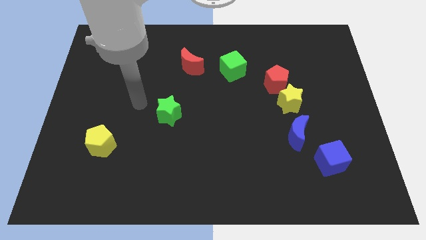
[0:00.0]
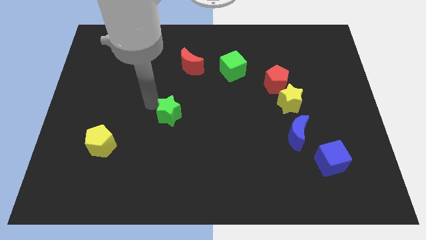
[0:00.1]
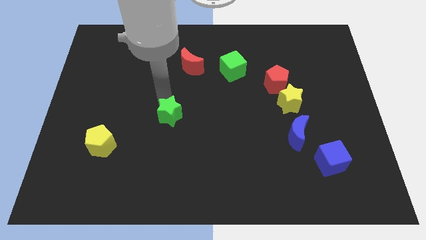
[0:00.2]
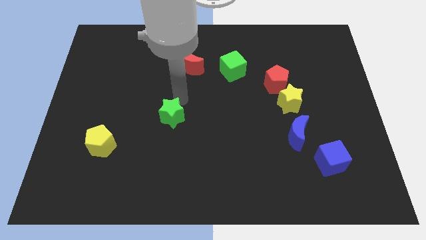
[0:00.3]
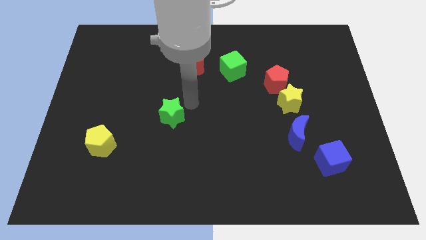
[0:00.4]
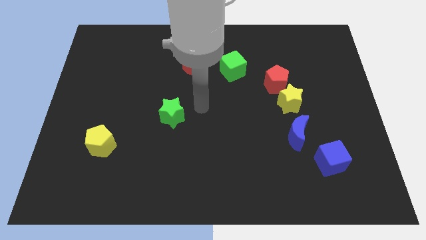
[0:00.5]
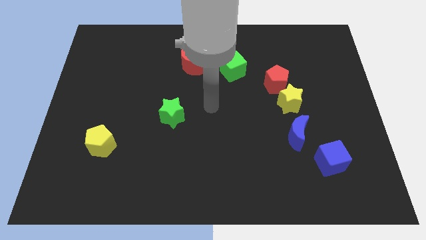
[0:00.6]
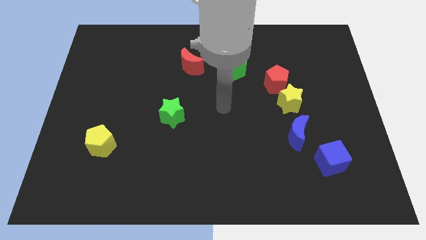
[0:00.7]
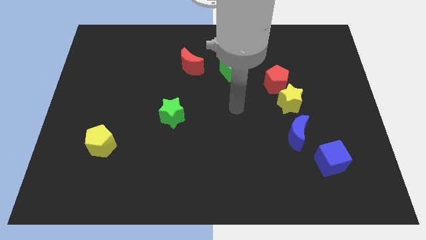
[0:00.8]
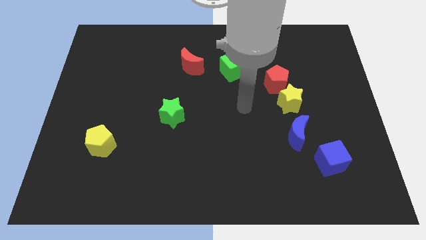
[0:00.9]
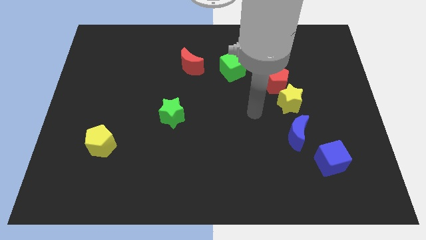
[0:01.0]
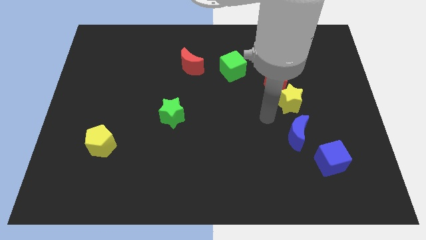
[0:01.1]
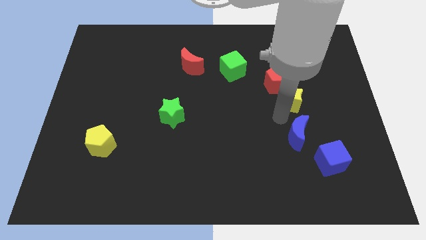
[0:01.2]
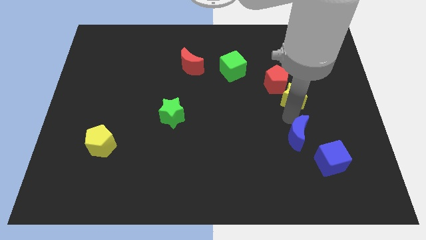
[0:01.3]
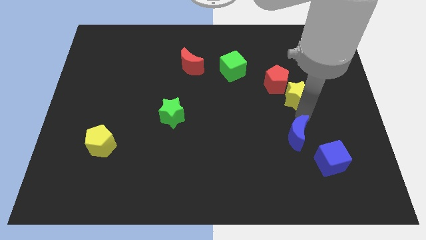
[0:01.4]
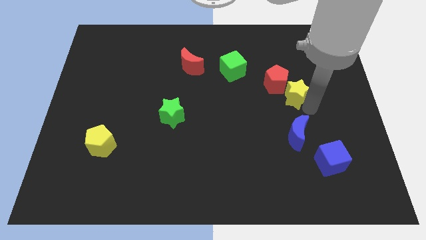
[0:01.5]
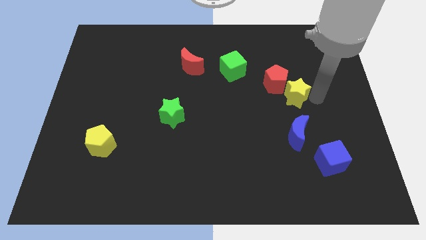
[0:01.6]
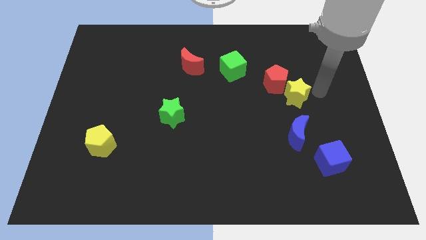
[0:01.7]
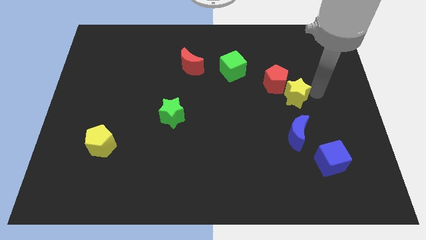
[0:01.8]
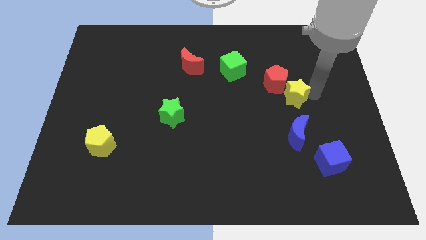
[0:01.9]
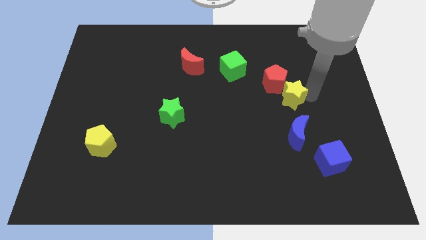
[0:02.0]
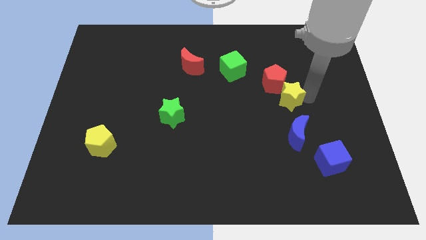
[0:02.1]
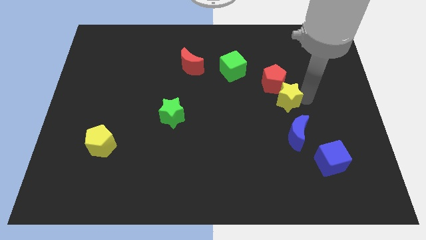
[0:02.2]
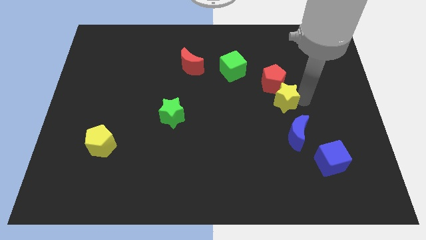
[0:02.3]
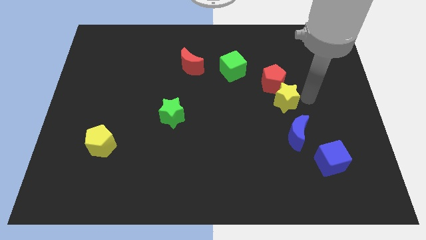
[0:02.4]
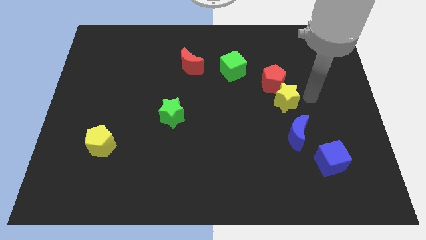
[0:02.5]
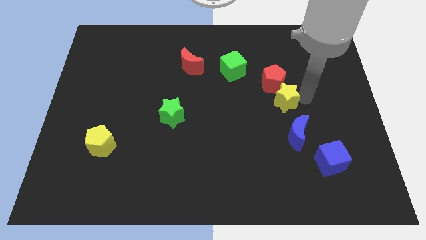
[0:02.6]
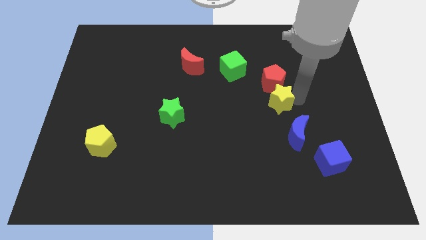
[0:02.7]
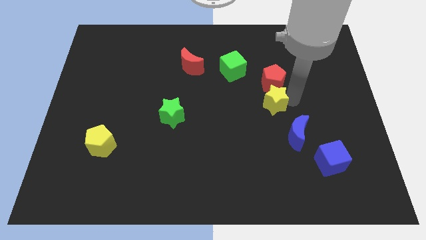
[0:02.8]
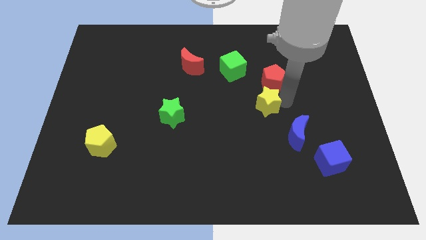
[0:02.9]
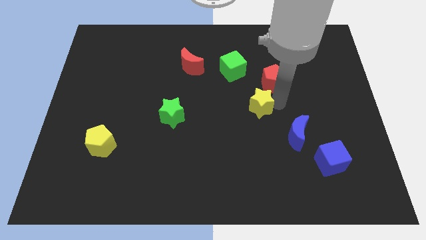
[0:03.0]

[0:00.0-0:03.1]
slightly push the yellow star to the left

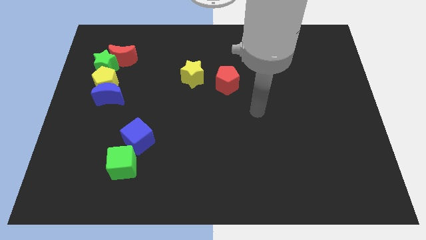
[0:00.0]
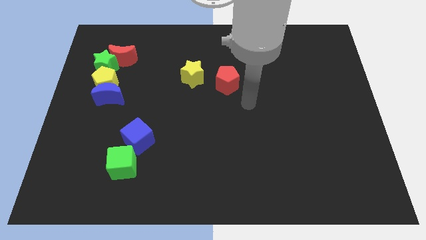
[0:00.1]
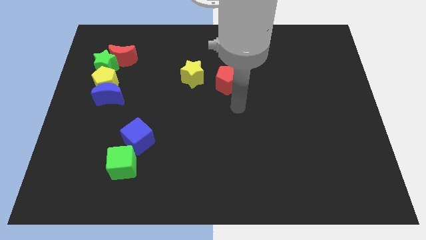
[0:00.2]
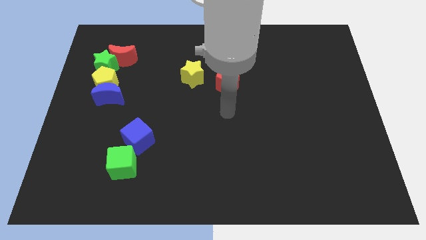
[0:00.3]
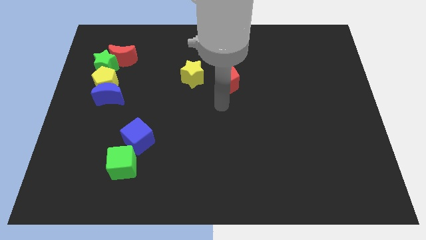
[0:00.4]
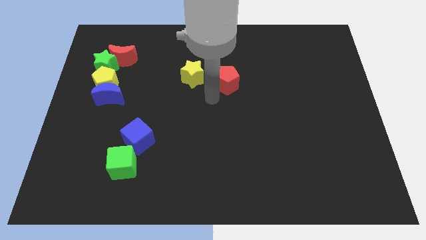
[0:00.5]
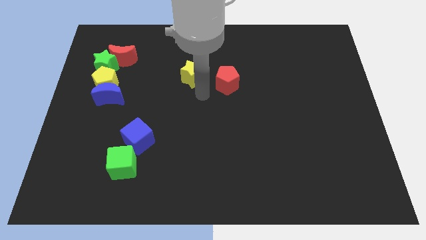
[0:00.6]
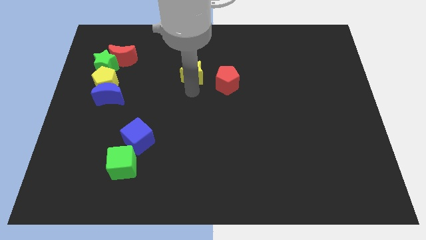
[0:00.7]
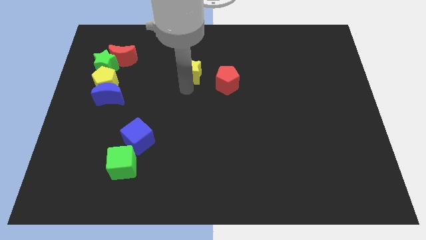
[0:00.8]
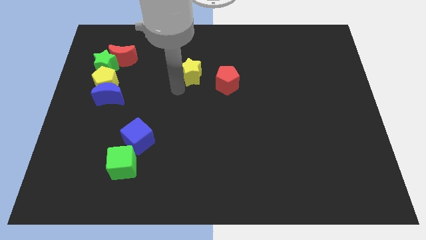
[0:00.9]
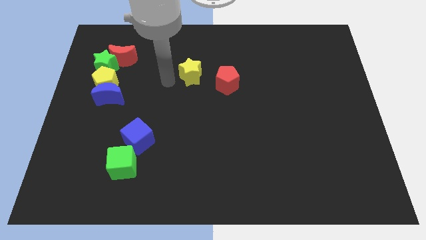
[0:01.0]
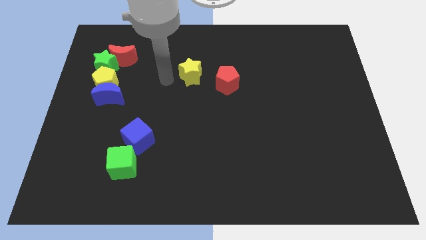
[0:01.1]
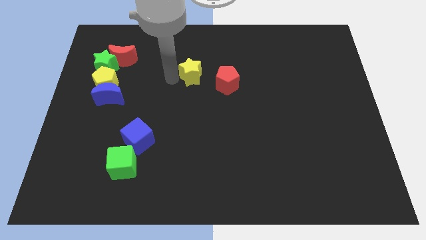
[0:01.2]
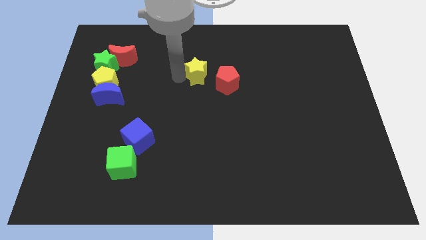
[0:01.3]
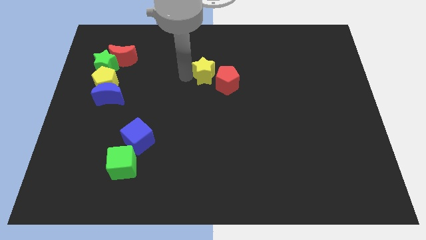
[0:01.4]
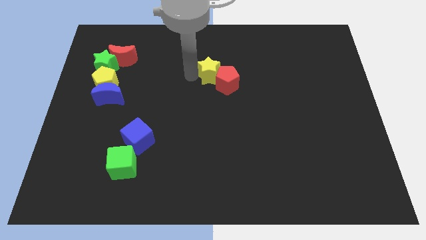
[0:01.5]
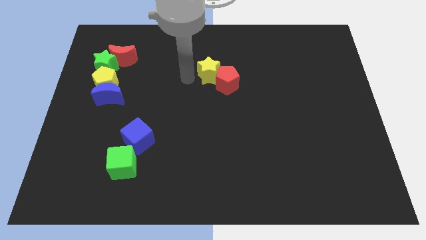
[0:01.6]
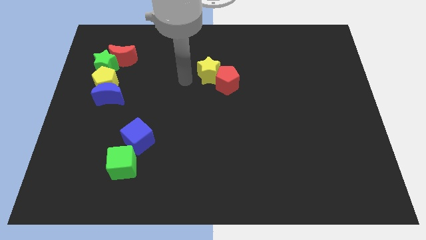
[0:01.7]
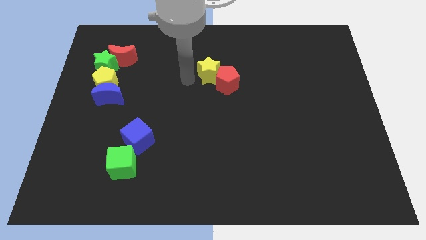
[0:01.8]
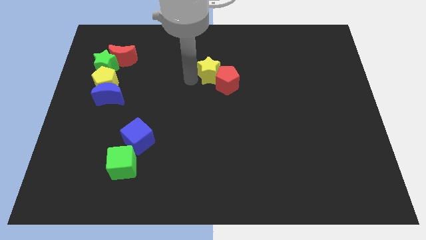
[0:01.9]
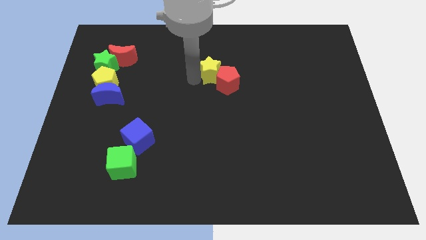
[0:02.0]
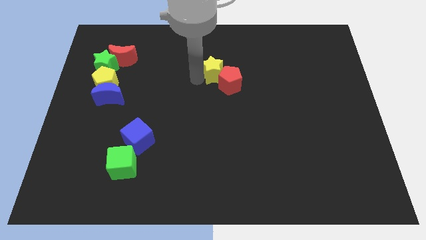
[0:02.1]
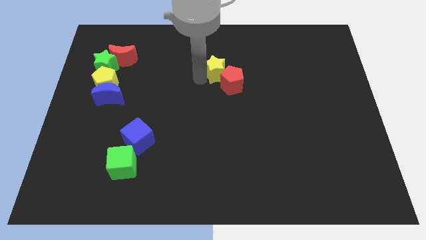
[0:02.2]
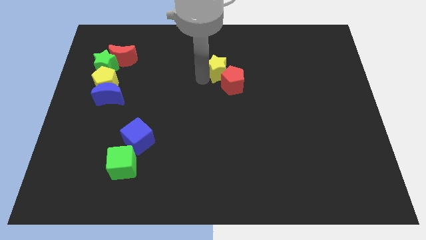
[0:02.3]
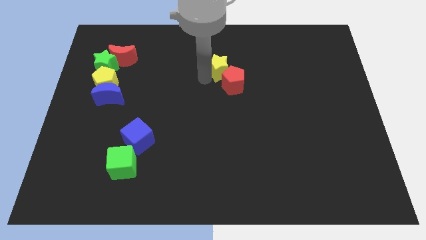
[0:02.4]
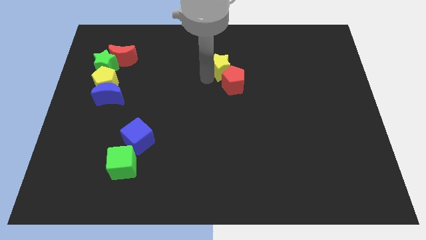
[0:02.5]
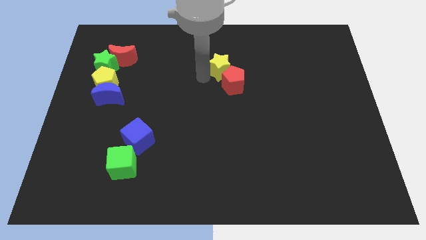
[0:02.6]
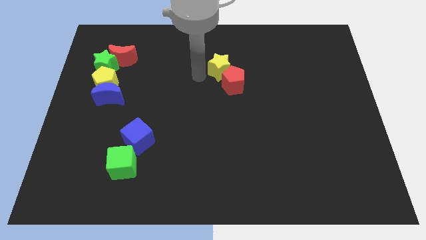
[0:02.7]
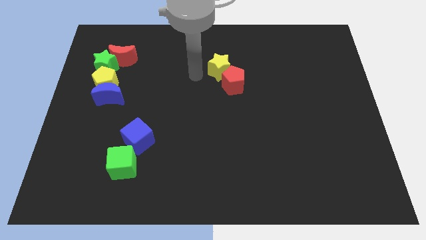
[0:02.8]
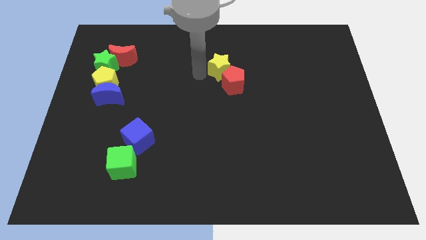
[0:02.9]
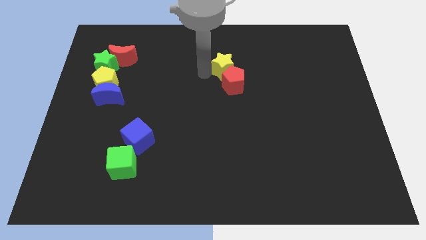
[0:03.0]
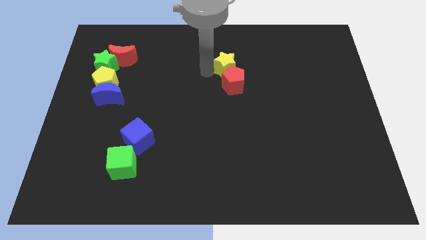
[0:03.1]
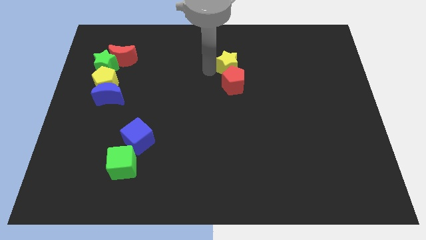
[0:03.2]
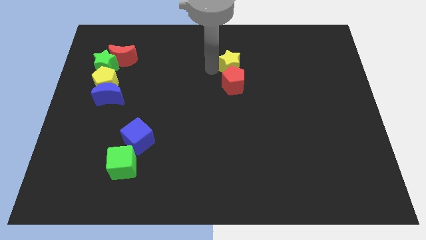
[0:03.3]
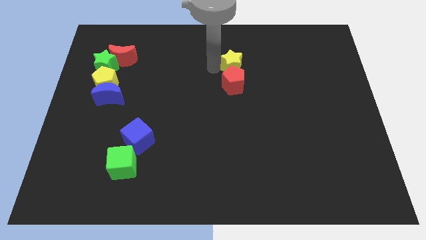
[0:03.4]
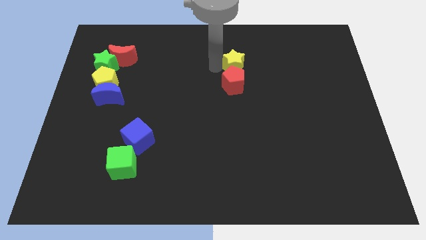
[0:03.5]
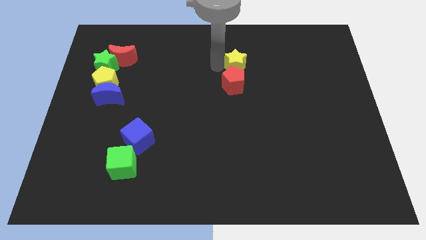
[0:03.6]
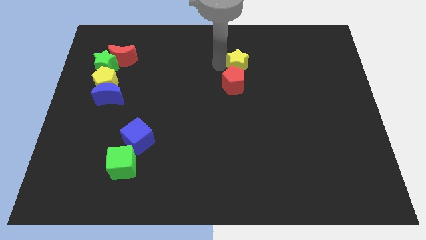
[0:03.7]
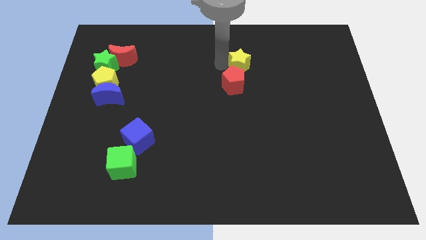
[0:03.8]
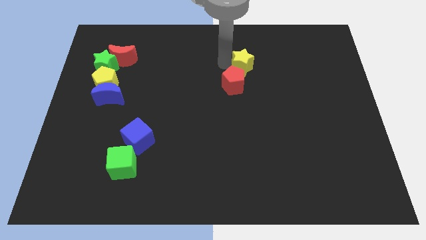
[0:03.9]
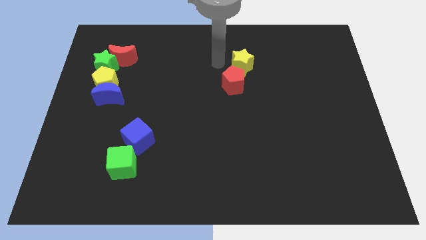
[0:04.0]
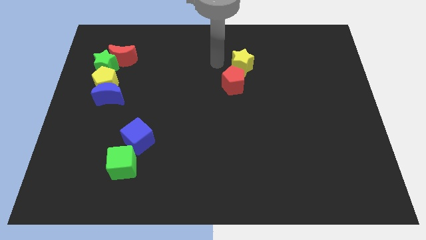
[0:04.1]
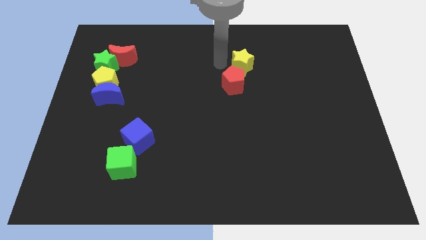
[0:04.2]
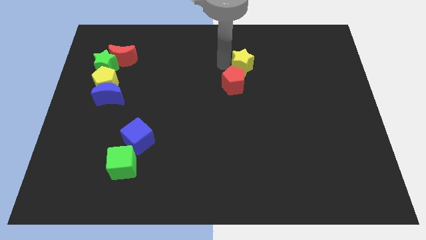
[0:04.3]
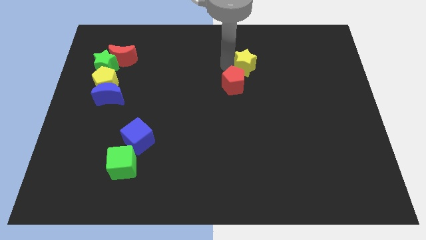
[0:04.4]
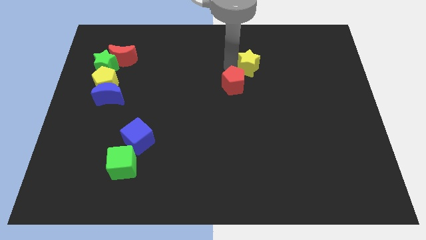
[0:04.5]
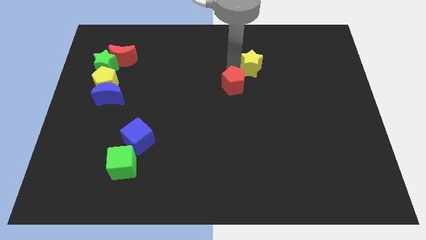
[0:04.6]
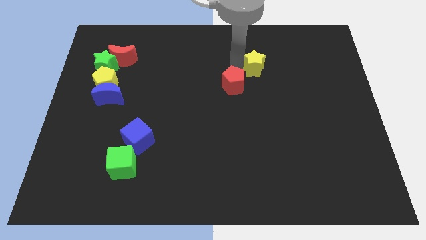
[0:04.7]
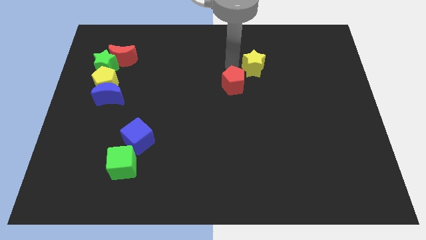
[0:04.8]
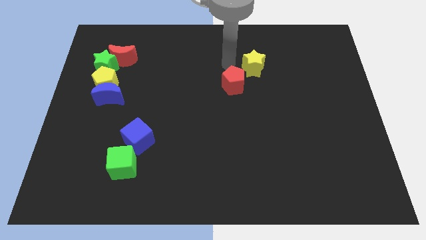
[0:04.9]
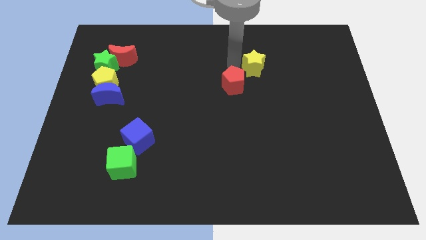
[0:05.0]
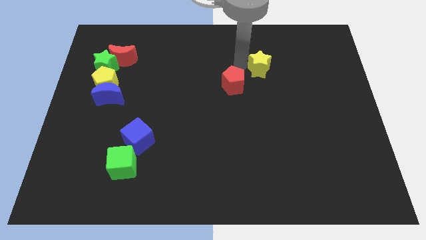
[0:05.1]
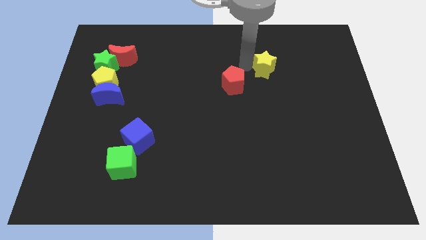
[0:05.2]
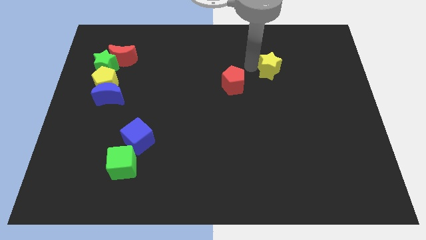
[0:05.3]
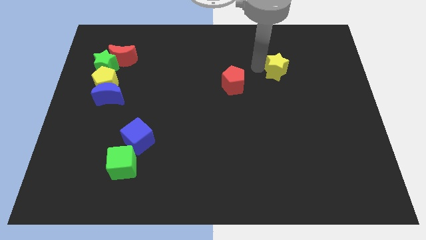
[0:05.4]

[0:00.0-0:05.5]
push the yellow star to the right
